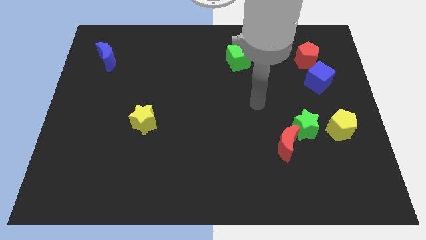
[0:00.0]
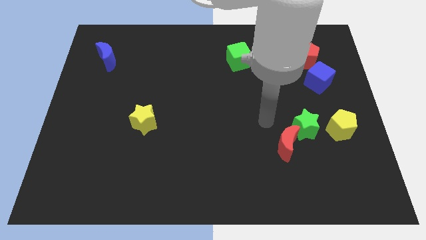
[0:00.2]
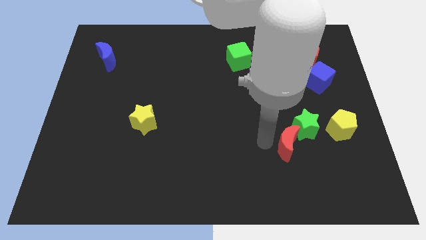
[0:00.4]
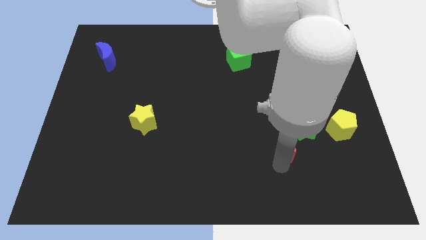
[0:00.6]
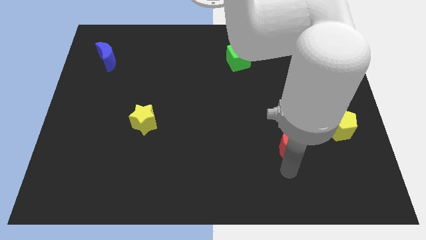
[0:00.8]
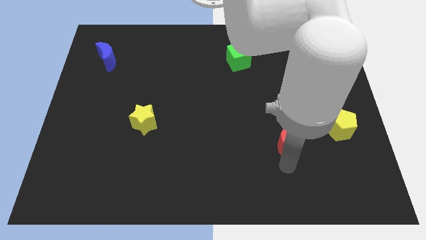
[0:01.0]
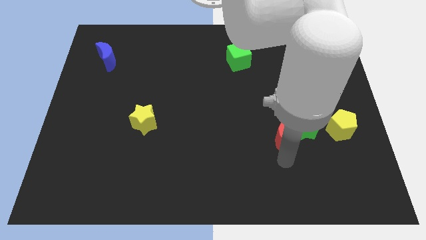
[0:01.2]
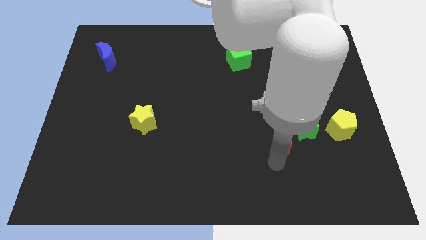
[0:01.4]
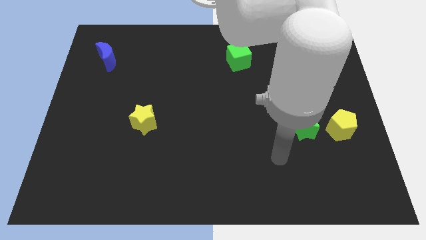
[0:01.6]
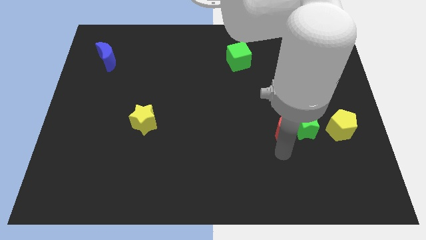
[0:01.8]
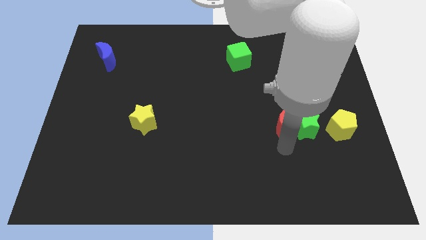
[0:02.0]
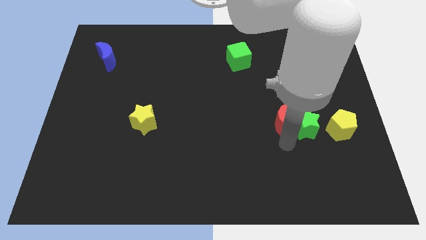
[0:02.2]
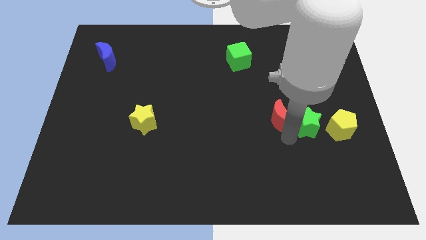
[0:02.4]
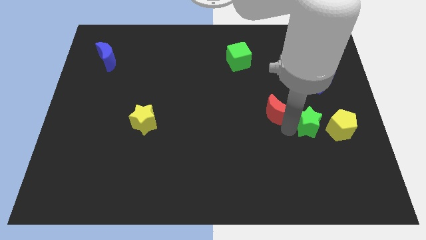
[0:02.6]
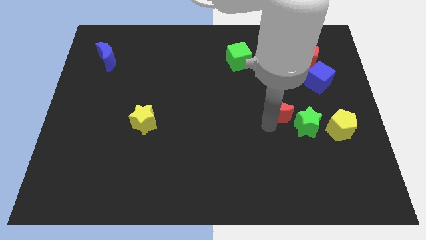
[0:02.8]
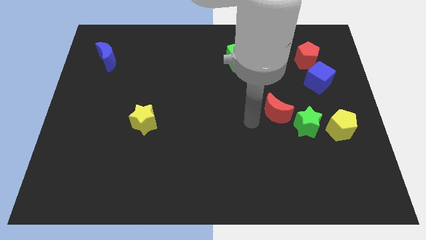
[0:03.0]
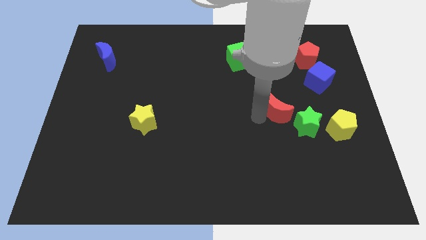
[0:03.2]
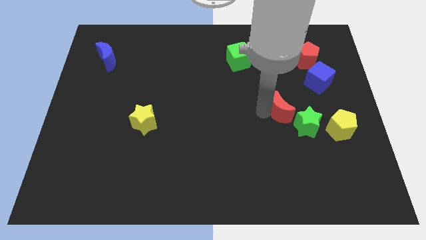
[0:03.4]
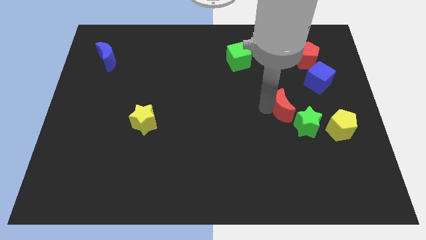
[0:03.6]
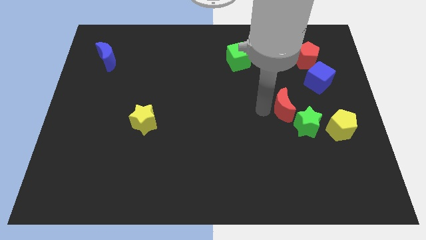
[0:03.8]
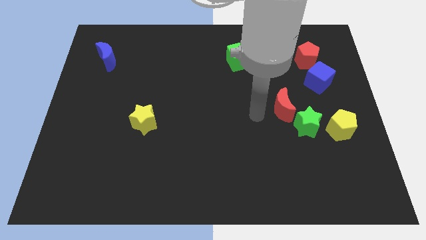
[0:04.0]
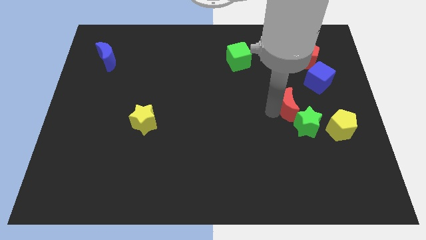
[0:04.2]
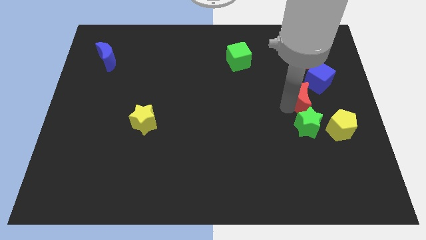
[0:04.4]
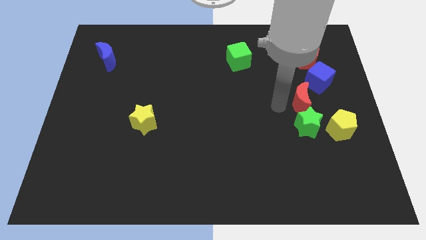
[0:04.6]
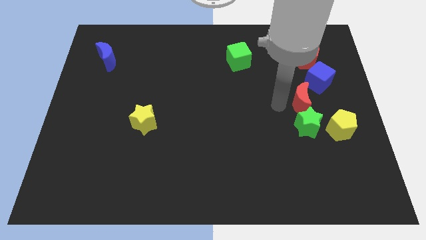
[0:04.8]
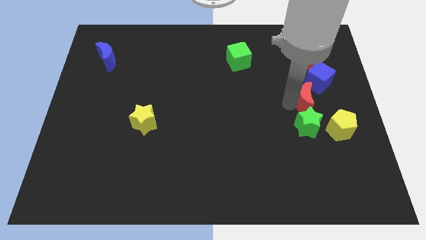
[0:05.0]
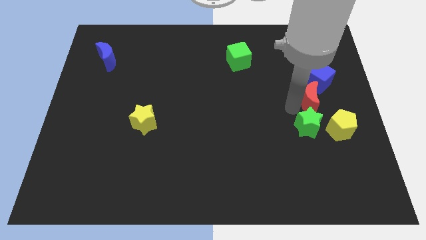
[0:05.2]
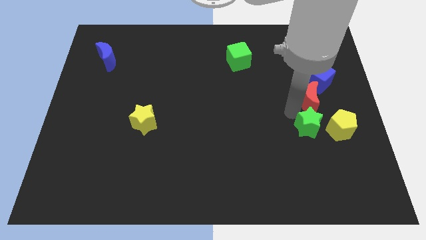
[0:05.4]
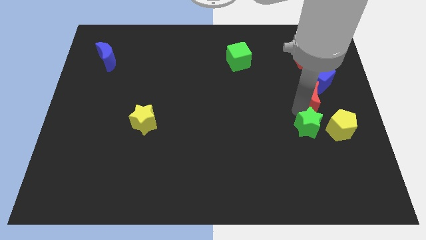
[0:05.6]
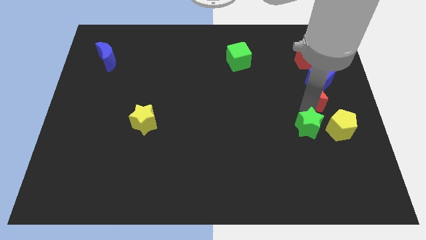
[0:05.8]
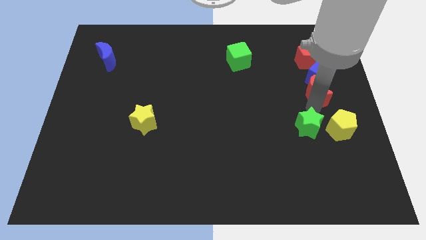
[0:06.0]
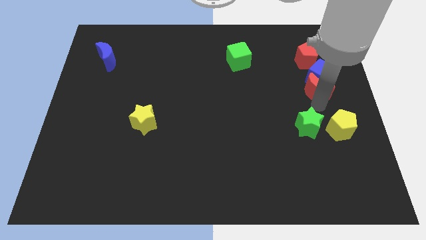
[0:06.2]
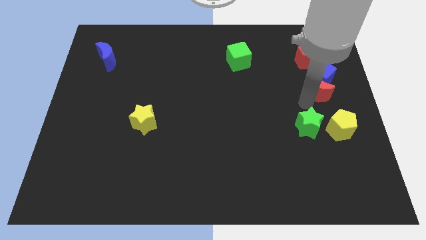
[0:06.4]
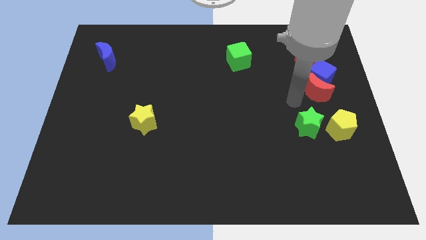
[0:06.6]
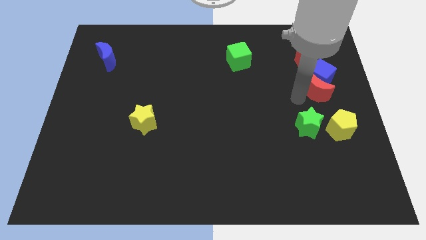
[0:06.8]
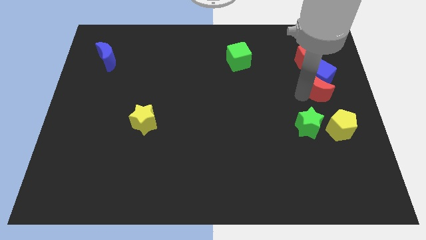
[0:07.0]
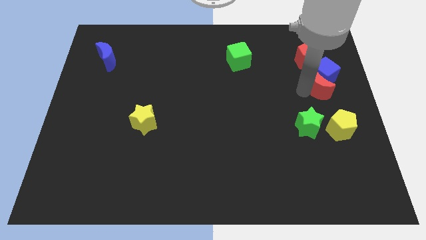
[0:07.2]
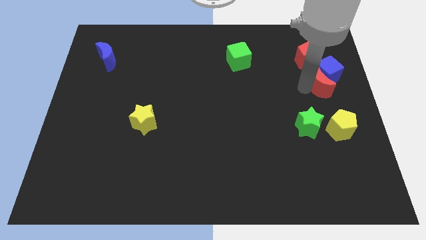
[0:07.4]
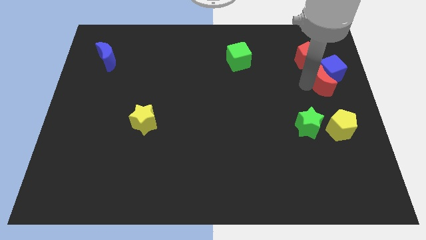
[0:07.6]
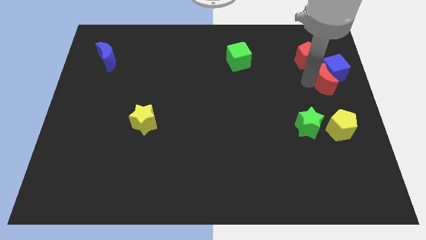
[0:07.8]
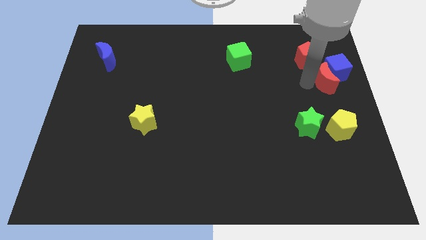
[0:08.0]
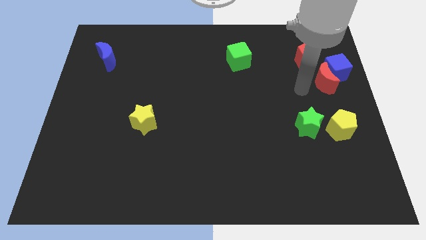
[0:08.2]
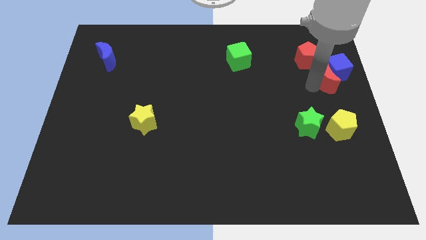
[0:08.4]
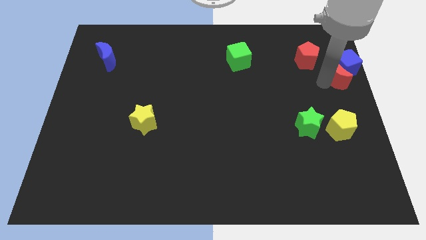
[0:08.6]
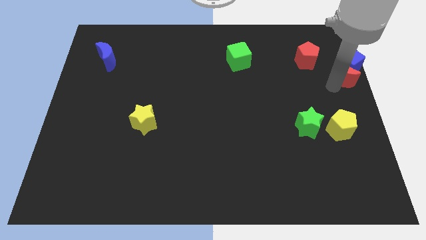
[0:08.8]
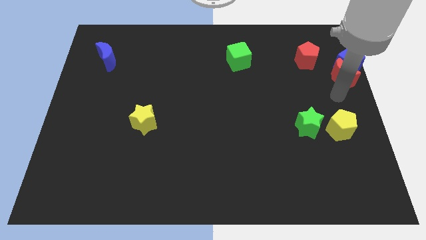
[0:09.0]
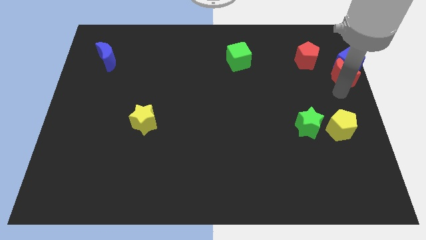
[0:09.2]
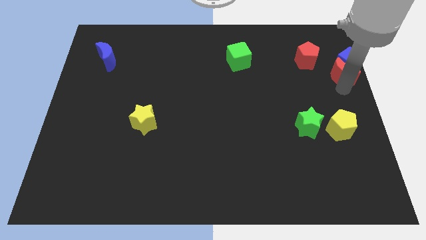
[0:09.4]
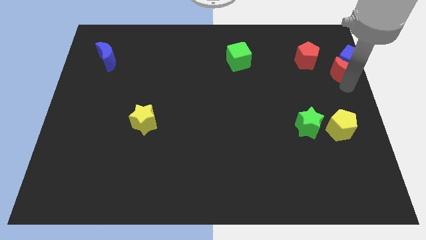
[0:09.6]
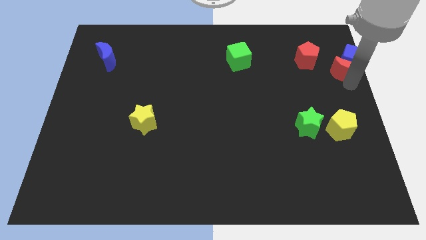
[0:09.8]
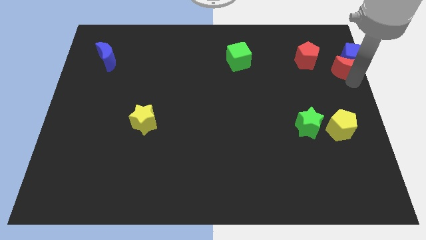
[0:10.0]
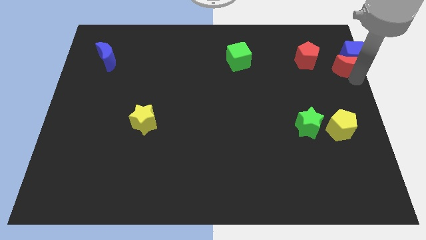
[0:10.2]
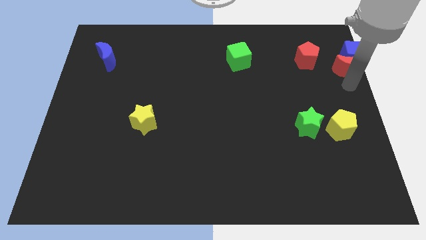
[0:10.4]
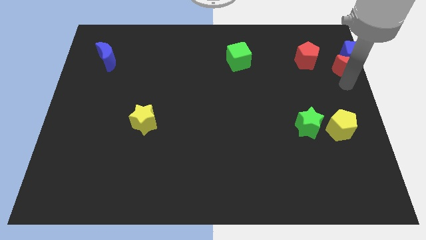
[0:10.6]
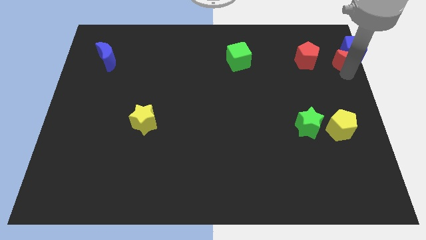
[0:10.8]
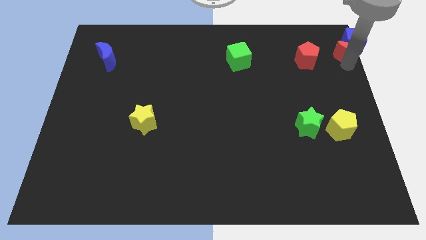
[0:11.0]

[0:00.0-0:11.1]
push the red moon to the top right
